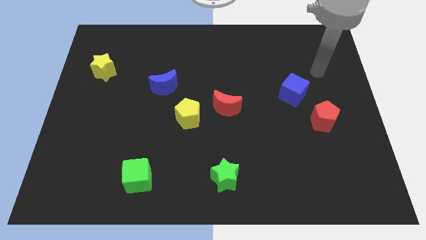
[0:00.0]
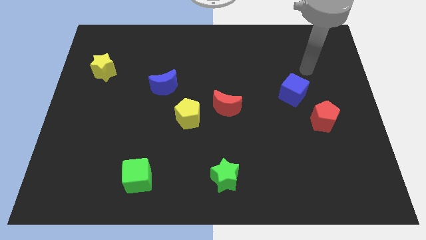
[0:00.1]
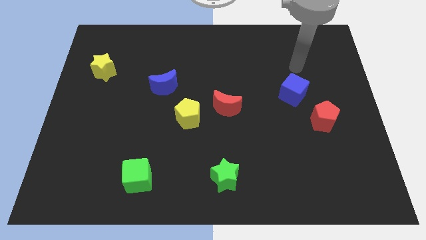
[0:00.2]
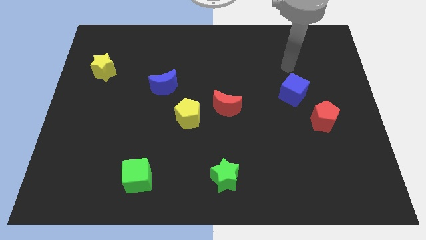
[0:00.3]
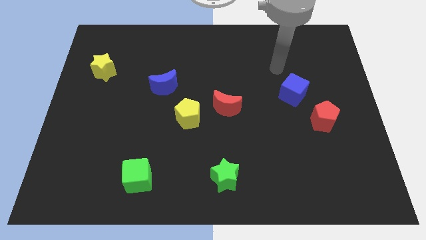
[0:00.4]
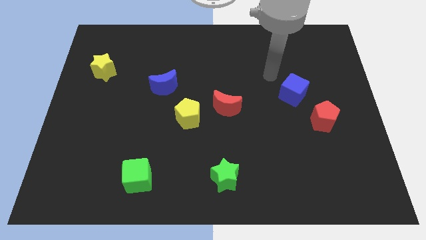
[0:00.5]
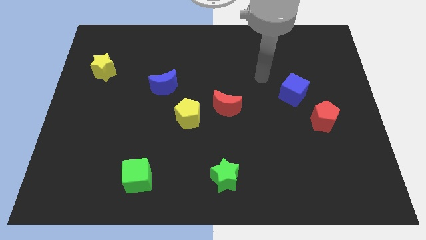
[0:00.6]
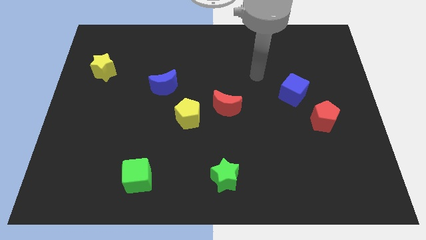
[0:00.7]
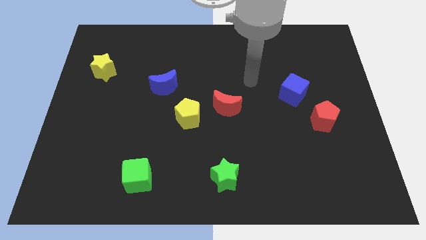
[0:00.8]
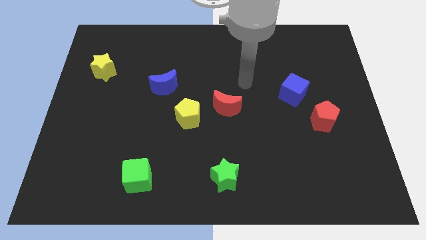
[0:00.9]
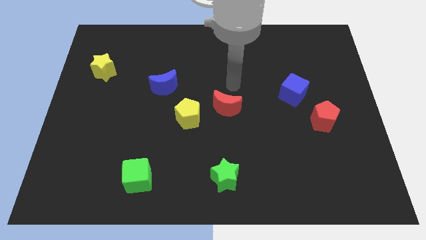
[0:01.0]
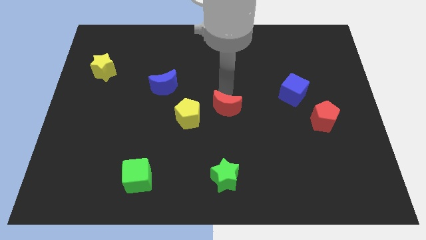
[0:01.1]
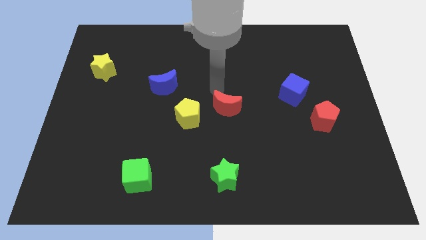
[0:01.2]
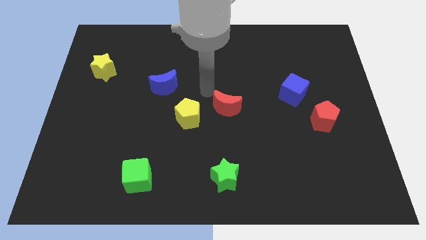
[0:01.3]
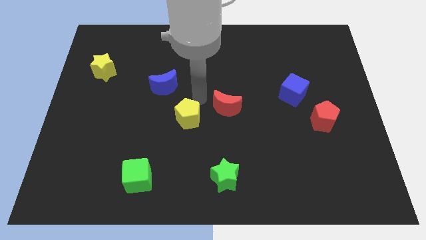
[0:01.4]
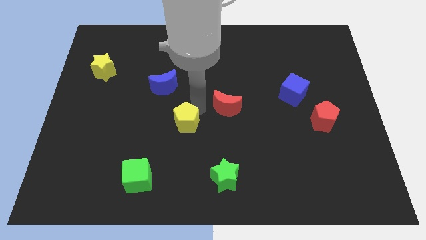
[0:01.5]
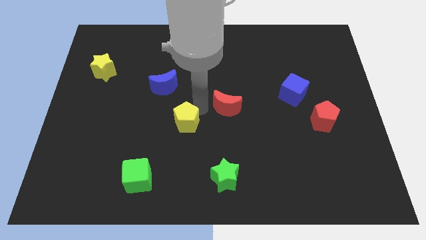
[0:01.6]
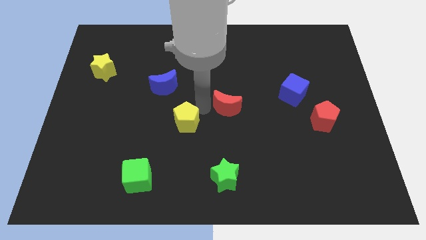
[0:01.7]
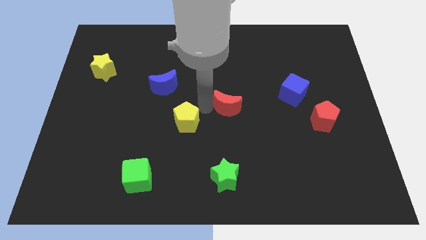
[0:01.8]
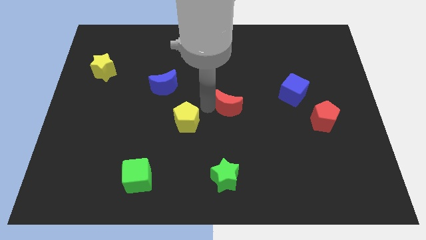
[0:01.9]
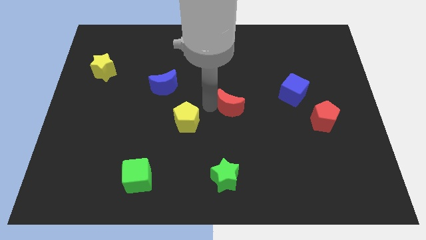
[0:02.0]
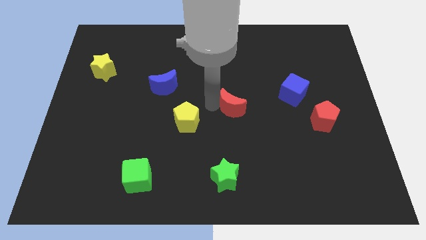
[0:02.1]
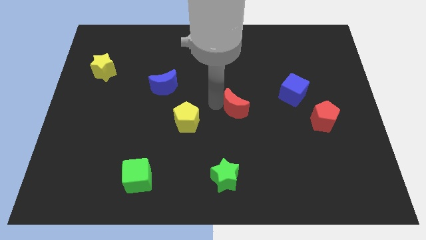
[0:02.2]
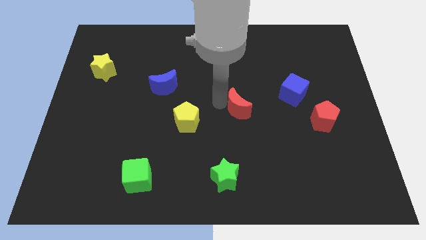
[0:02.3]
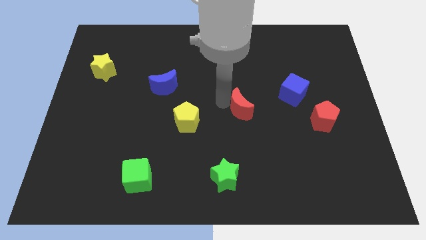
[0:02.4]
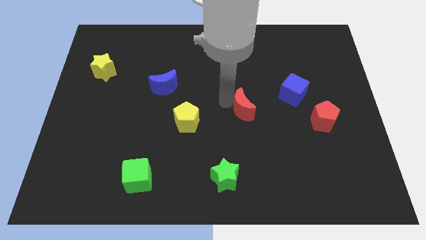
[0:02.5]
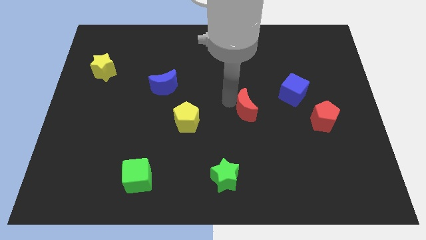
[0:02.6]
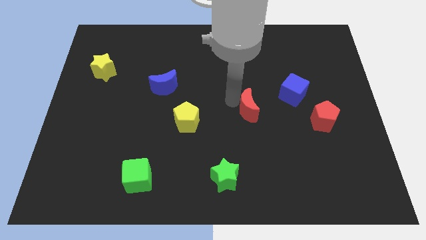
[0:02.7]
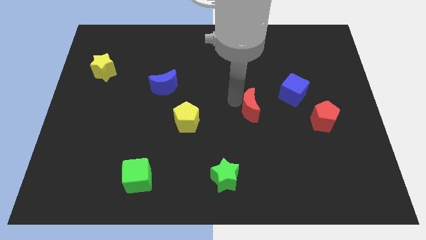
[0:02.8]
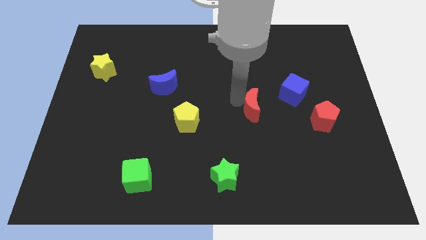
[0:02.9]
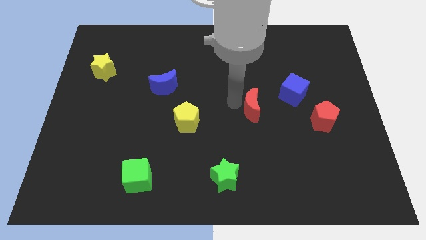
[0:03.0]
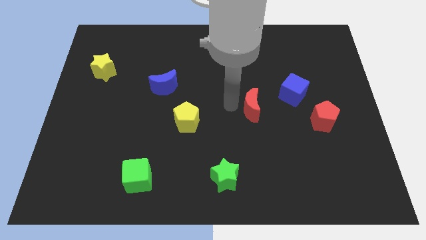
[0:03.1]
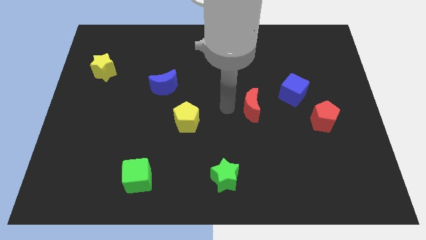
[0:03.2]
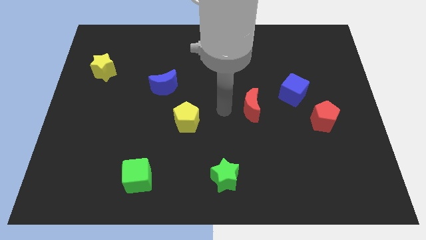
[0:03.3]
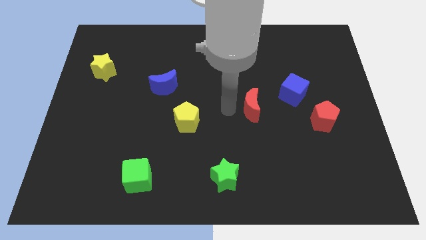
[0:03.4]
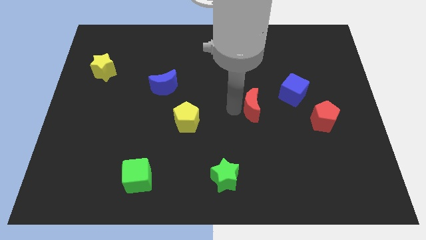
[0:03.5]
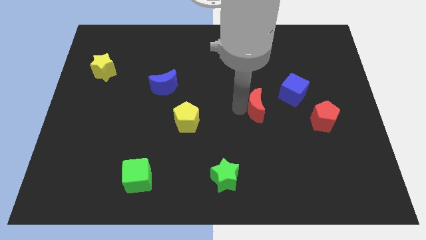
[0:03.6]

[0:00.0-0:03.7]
move the red moon to the right a little

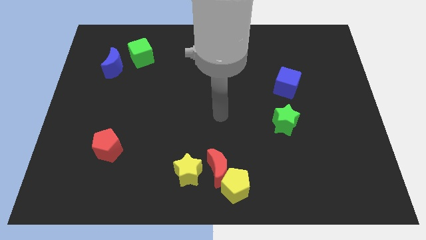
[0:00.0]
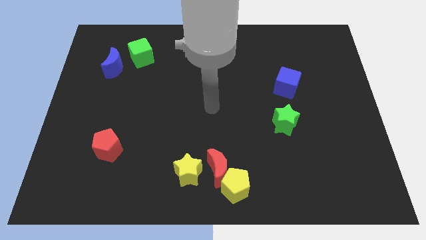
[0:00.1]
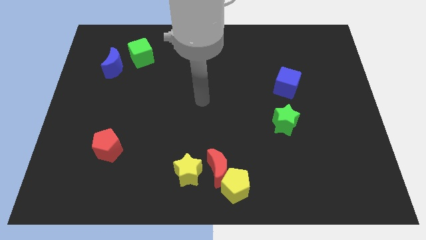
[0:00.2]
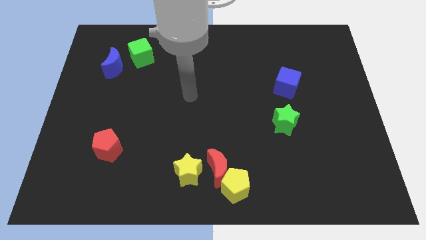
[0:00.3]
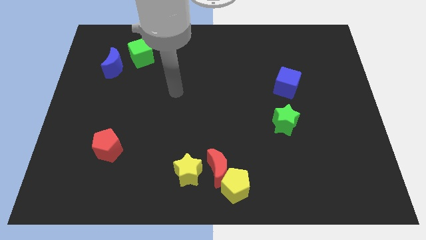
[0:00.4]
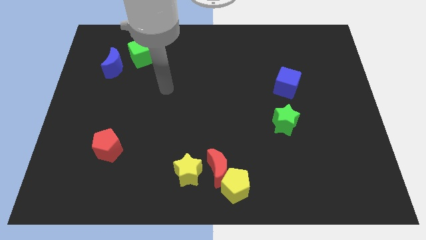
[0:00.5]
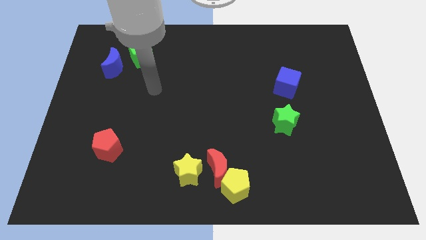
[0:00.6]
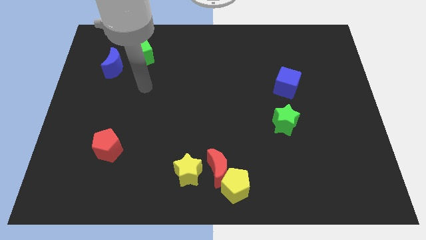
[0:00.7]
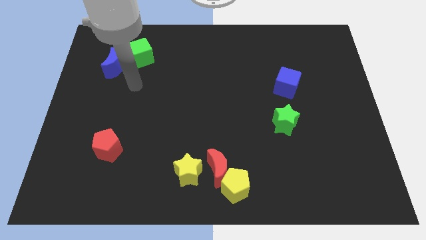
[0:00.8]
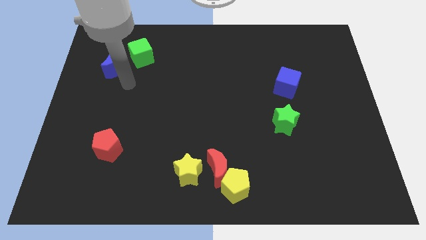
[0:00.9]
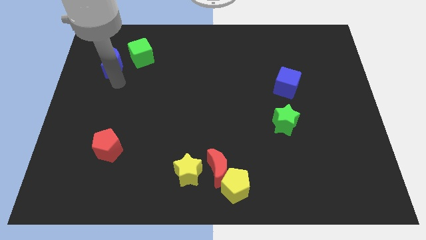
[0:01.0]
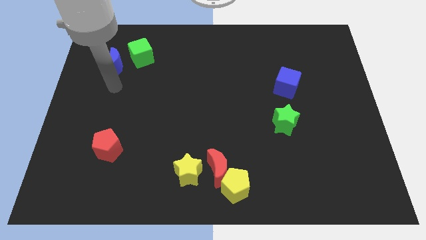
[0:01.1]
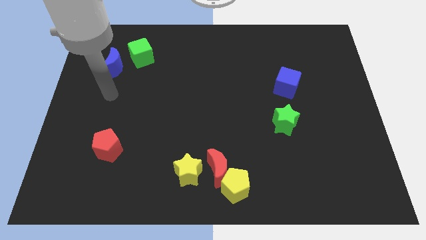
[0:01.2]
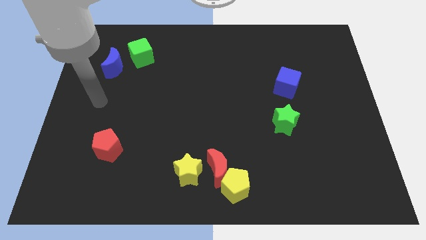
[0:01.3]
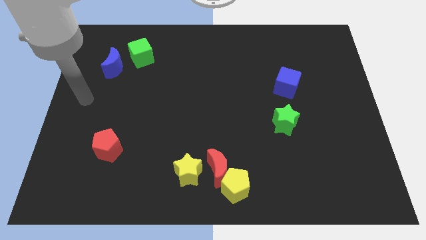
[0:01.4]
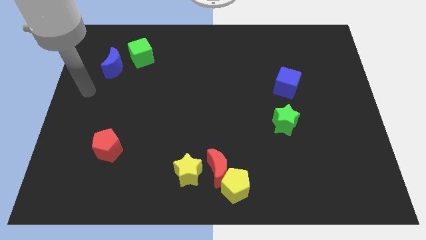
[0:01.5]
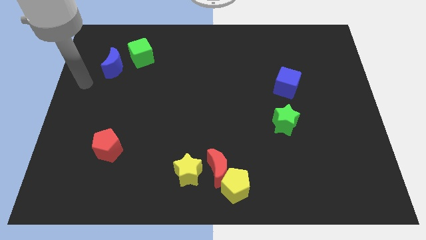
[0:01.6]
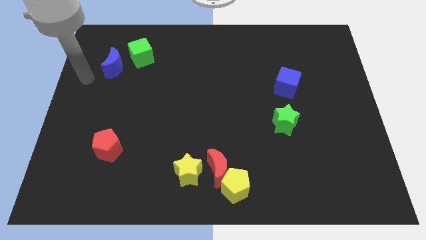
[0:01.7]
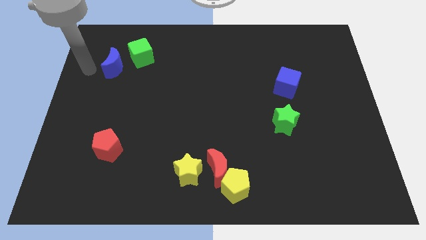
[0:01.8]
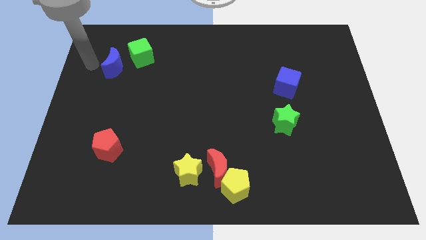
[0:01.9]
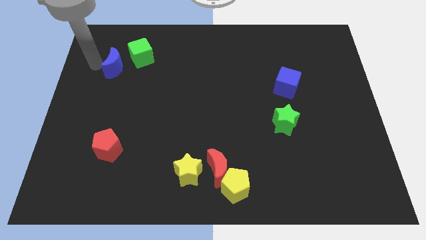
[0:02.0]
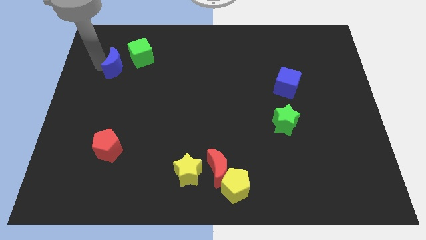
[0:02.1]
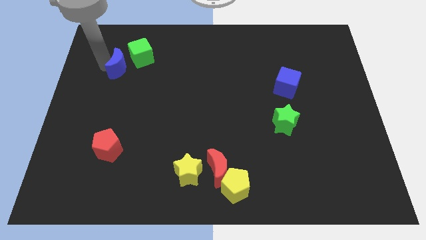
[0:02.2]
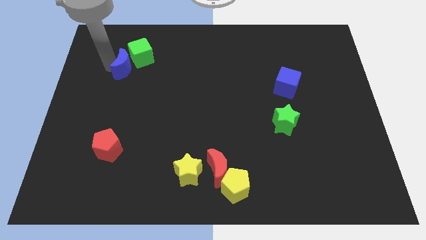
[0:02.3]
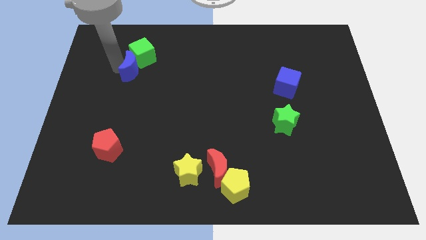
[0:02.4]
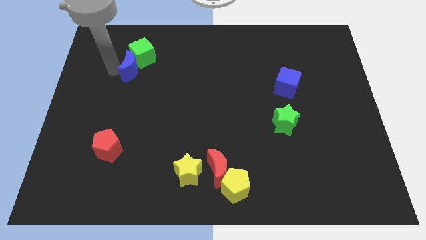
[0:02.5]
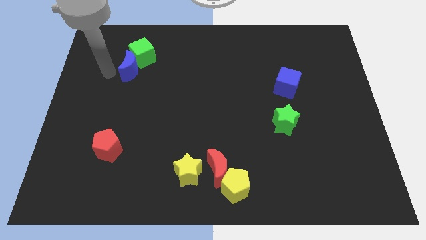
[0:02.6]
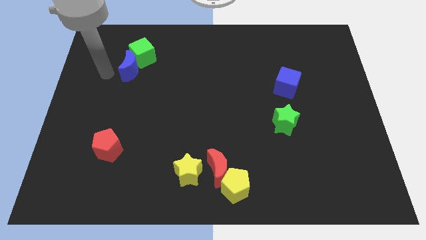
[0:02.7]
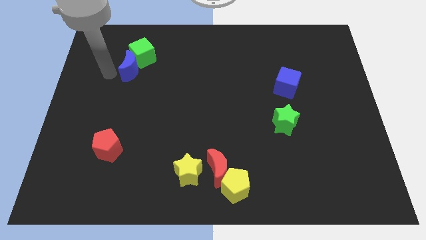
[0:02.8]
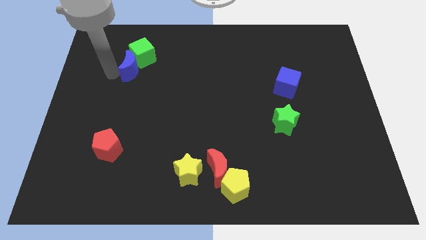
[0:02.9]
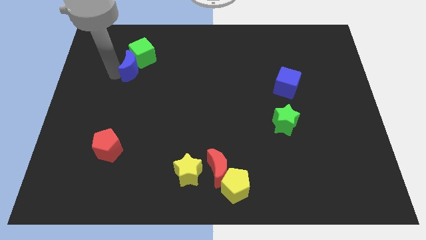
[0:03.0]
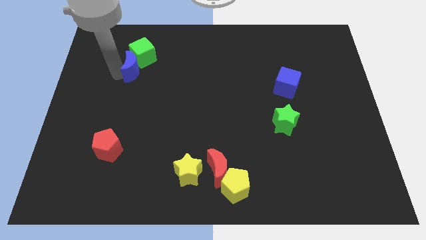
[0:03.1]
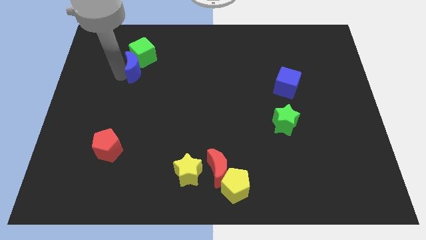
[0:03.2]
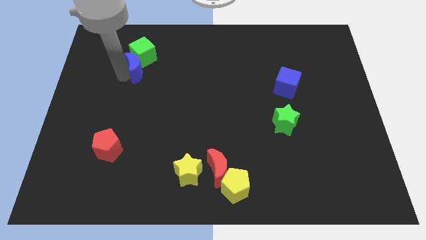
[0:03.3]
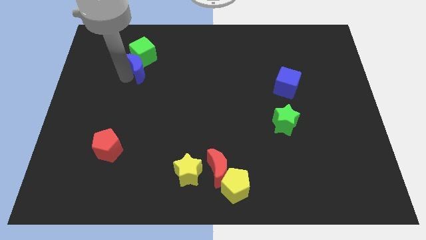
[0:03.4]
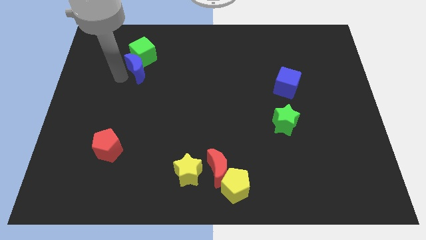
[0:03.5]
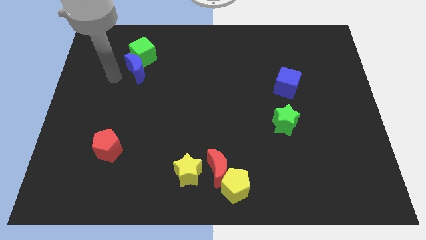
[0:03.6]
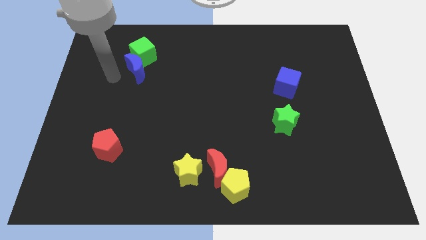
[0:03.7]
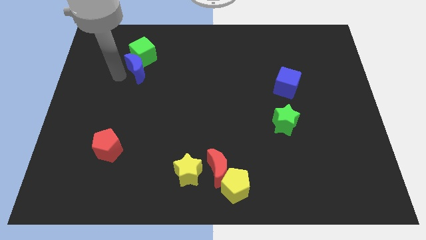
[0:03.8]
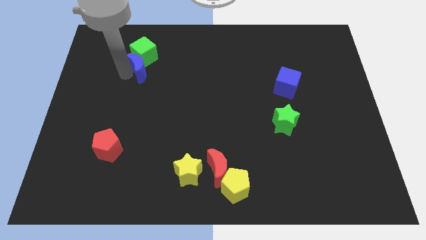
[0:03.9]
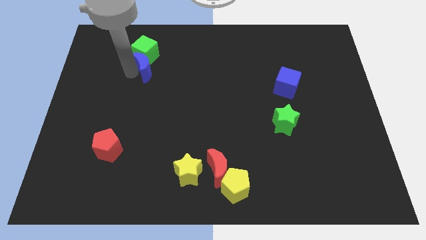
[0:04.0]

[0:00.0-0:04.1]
slide the blue moon right a little
